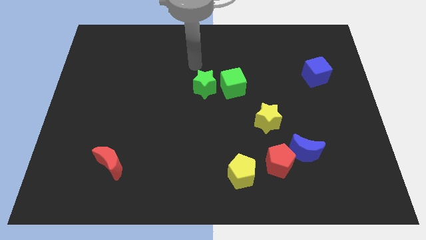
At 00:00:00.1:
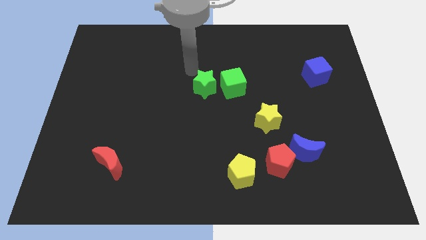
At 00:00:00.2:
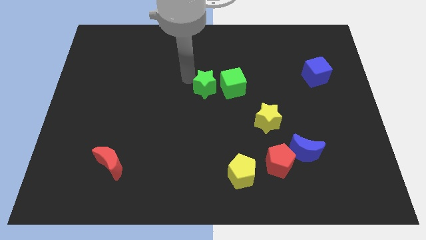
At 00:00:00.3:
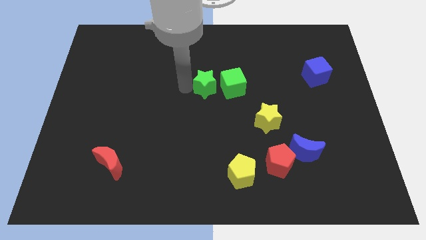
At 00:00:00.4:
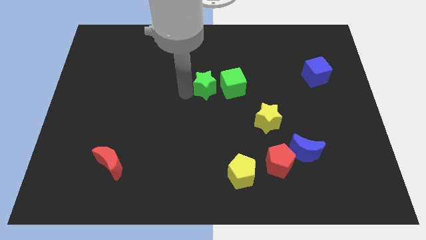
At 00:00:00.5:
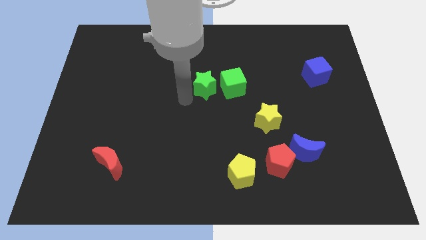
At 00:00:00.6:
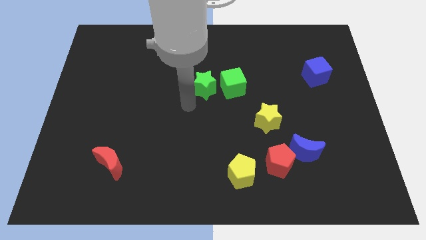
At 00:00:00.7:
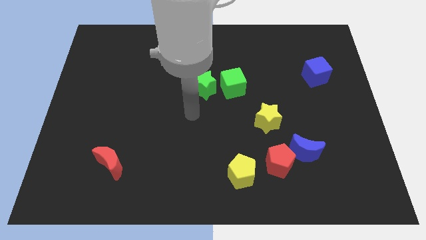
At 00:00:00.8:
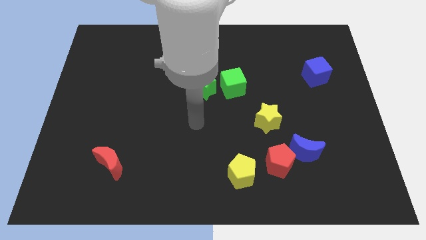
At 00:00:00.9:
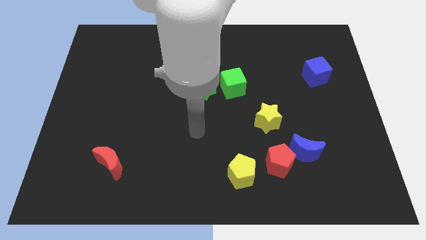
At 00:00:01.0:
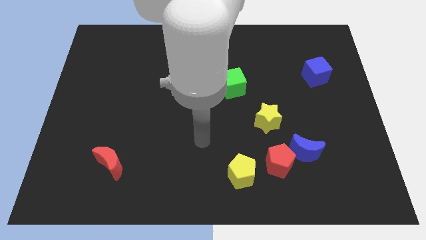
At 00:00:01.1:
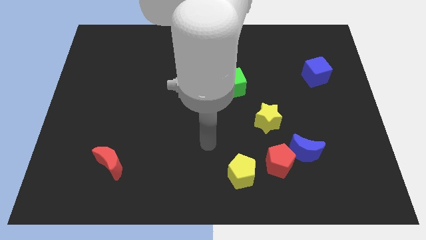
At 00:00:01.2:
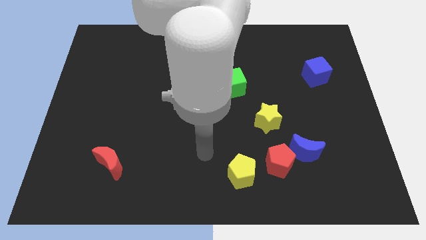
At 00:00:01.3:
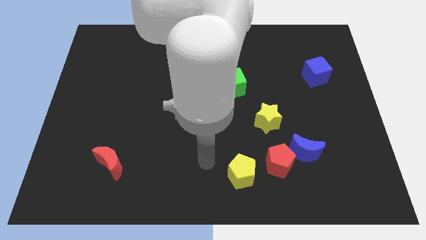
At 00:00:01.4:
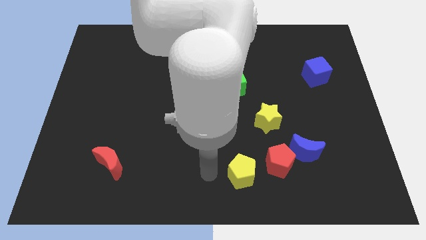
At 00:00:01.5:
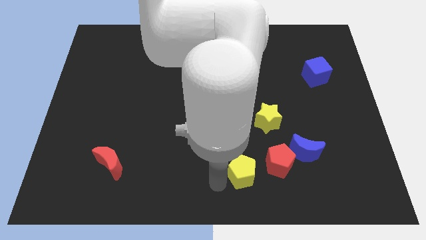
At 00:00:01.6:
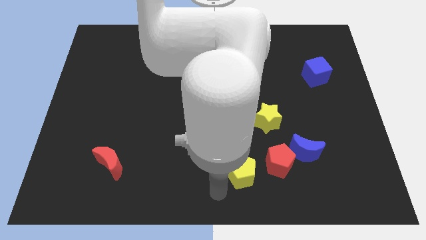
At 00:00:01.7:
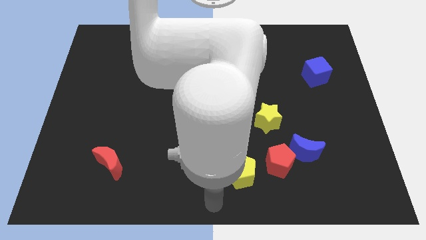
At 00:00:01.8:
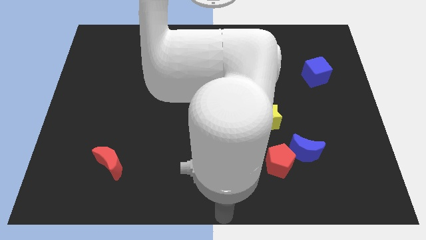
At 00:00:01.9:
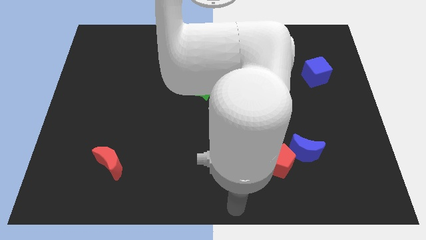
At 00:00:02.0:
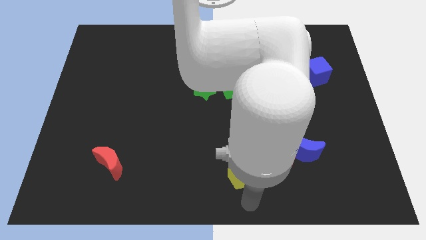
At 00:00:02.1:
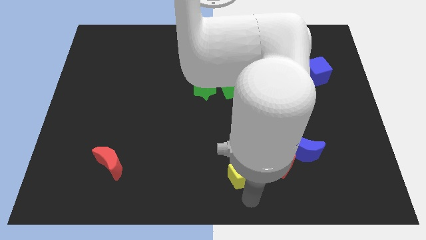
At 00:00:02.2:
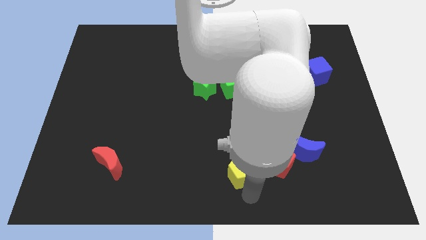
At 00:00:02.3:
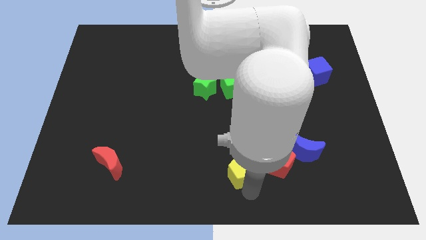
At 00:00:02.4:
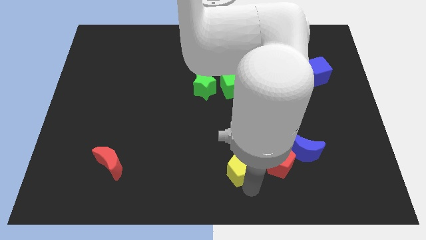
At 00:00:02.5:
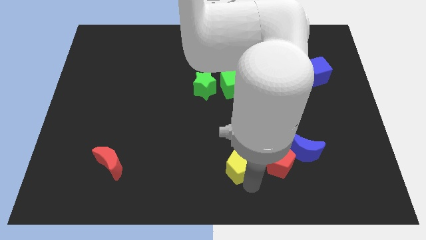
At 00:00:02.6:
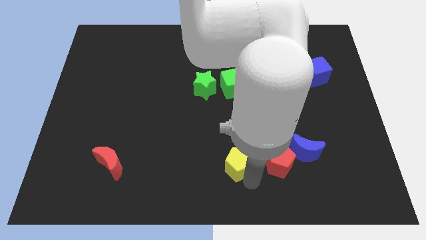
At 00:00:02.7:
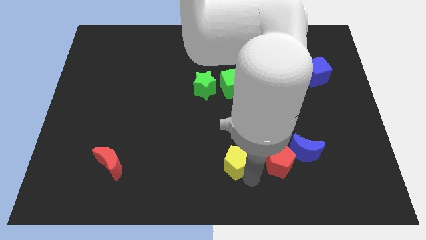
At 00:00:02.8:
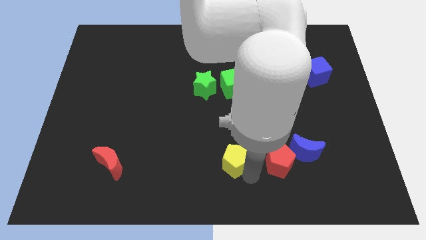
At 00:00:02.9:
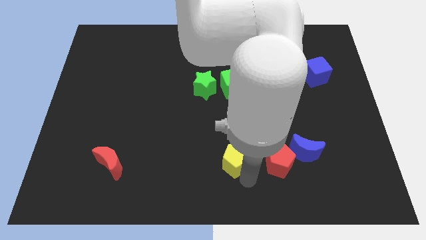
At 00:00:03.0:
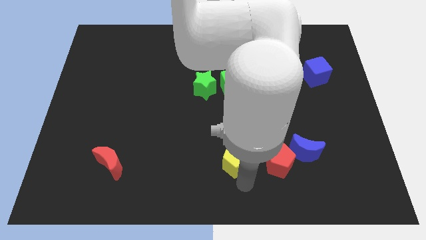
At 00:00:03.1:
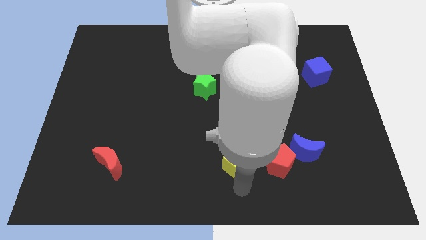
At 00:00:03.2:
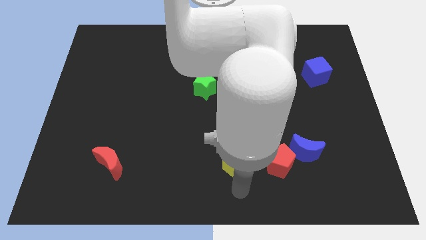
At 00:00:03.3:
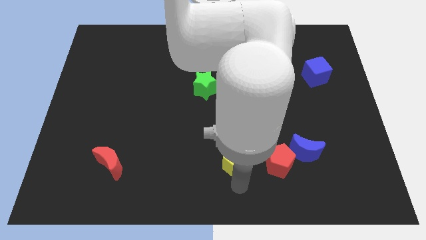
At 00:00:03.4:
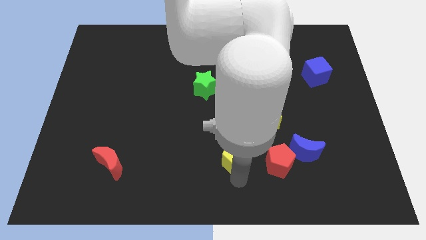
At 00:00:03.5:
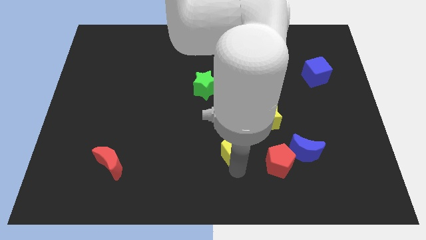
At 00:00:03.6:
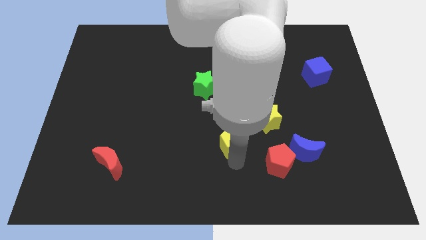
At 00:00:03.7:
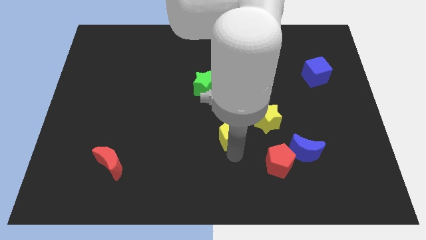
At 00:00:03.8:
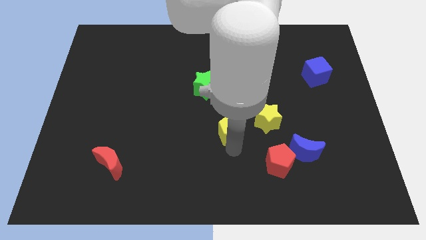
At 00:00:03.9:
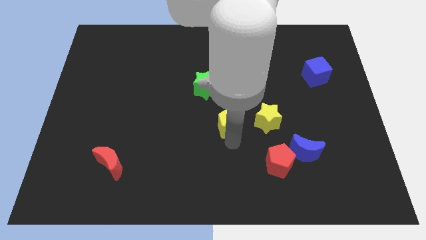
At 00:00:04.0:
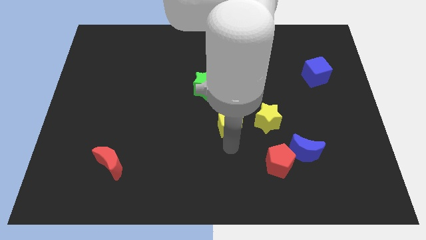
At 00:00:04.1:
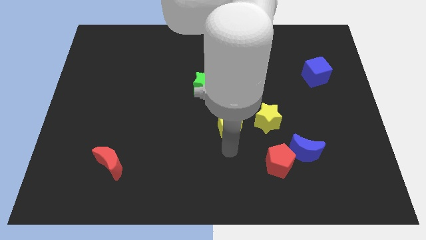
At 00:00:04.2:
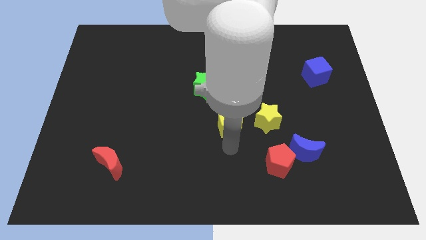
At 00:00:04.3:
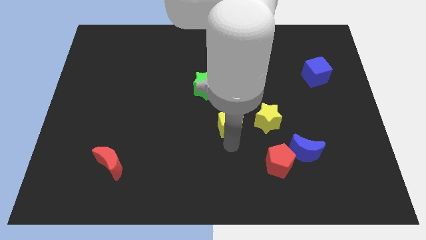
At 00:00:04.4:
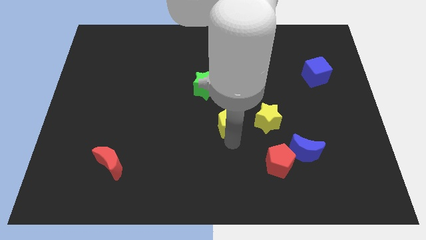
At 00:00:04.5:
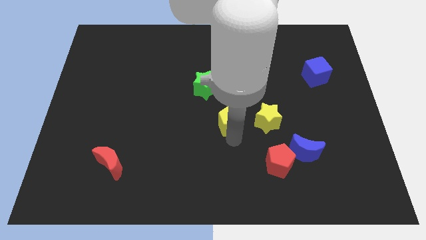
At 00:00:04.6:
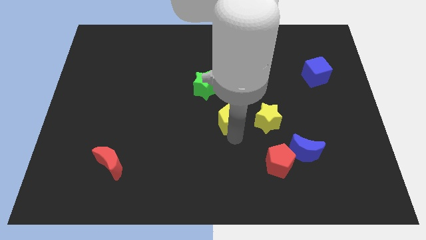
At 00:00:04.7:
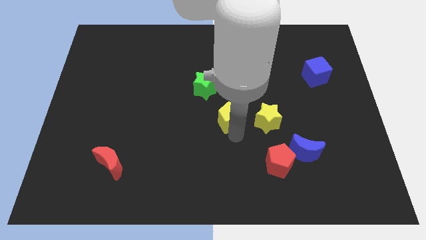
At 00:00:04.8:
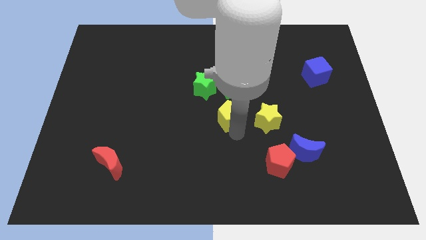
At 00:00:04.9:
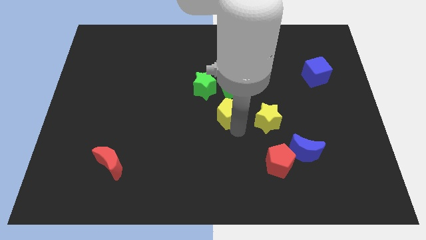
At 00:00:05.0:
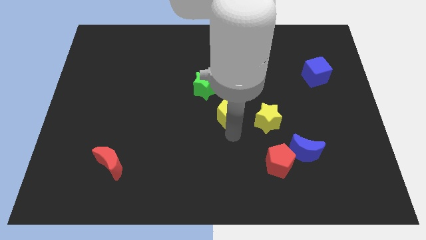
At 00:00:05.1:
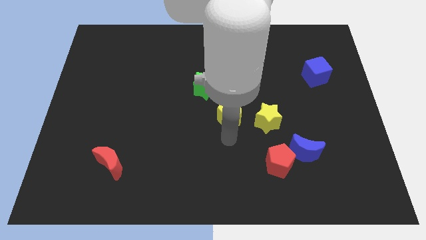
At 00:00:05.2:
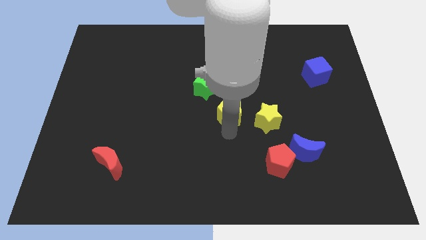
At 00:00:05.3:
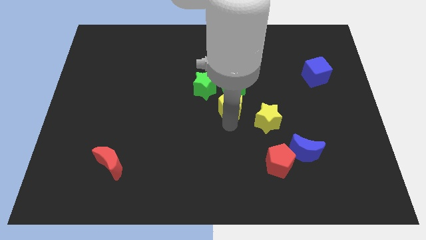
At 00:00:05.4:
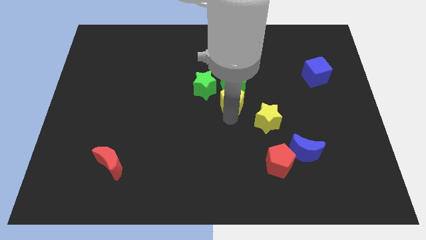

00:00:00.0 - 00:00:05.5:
push the yellow pentagon to the green cube

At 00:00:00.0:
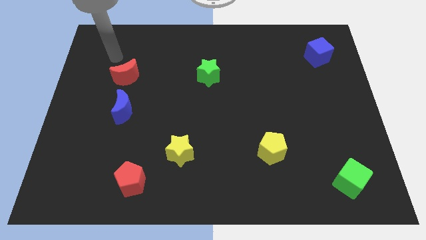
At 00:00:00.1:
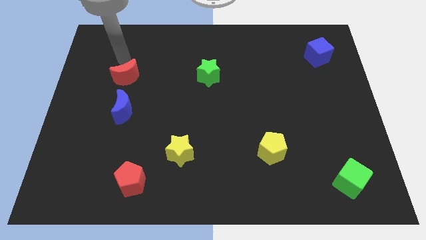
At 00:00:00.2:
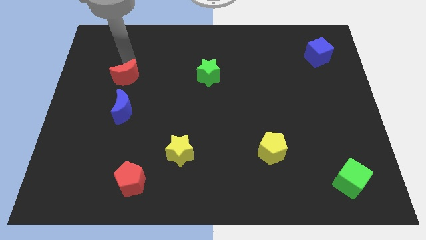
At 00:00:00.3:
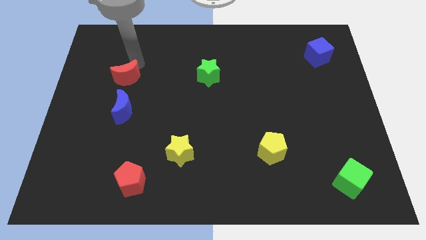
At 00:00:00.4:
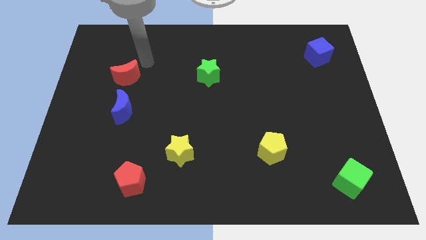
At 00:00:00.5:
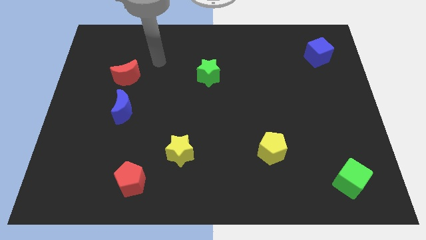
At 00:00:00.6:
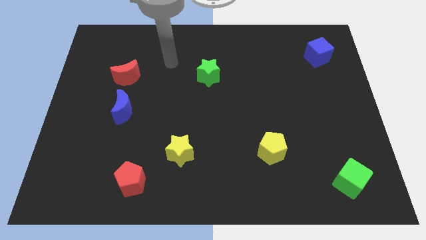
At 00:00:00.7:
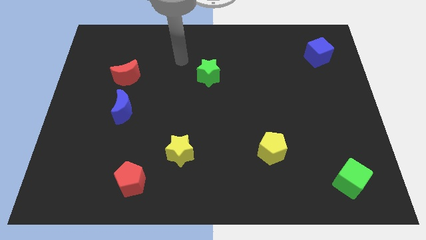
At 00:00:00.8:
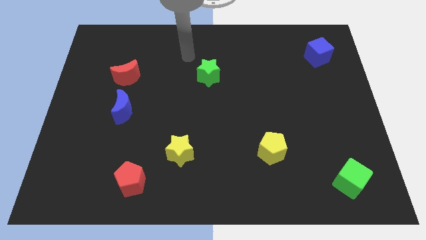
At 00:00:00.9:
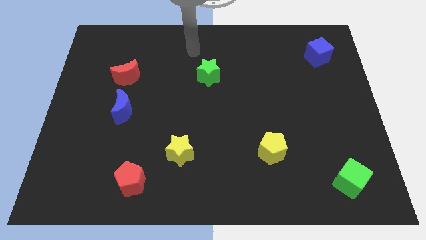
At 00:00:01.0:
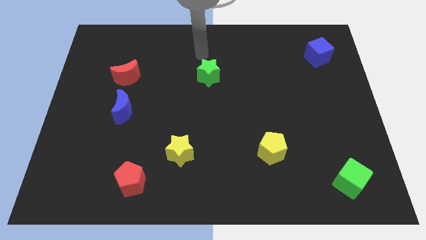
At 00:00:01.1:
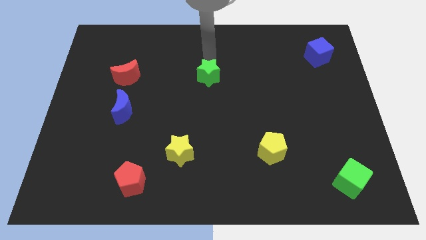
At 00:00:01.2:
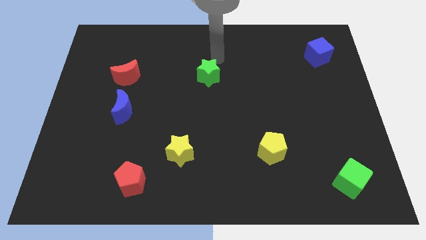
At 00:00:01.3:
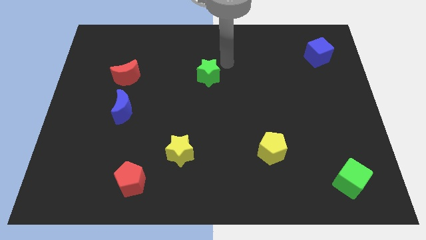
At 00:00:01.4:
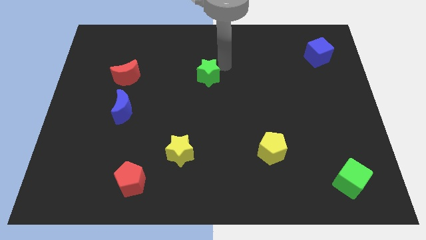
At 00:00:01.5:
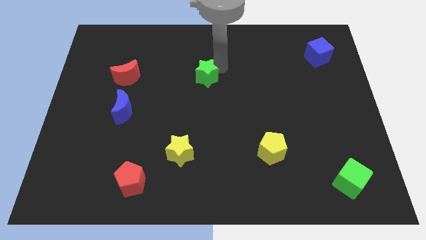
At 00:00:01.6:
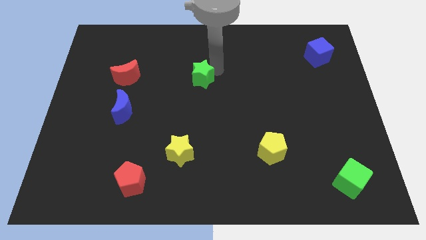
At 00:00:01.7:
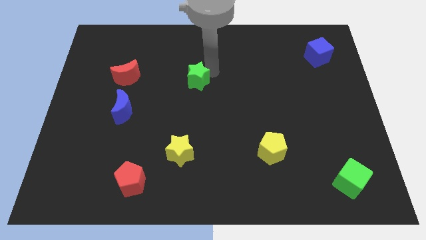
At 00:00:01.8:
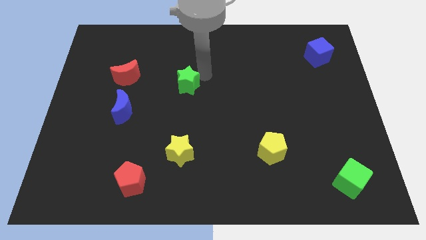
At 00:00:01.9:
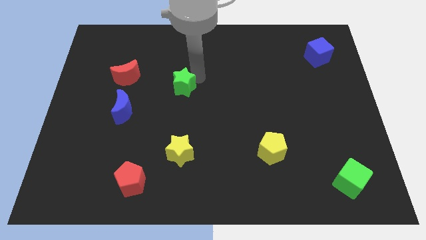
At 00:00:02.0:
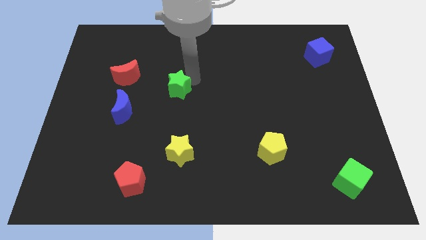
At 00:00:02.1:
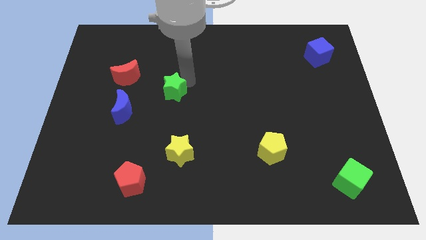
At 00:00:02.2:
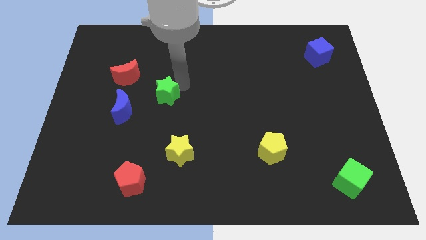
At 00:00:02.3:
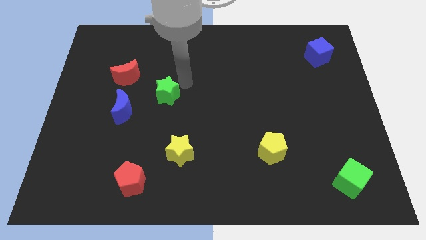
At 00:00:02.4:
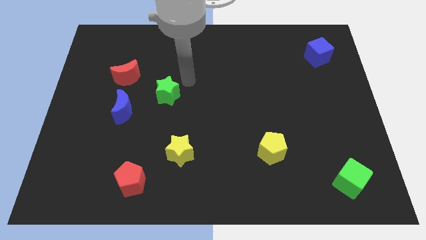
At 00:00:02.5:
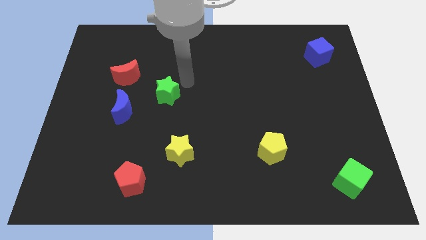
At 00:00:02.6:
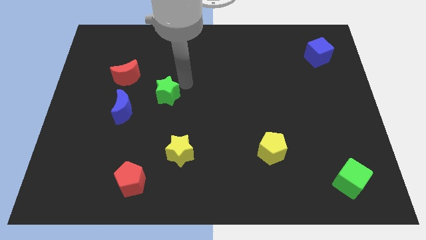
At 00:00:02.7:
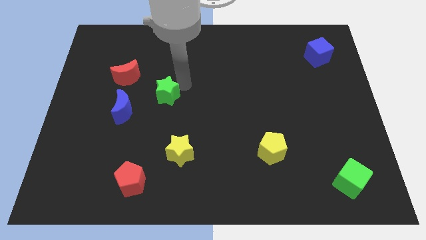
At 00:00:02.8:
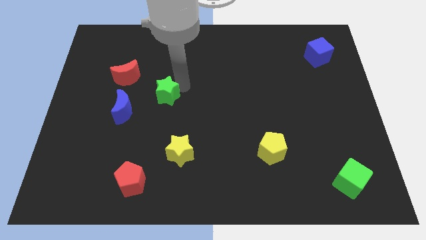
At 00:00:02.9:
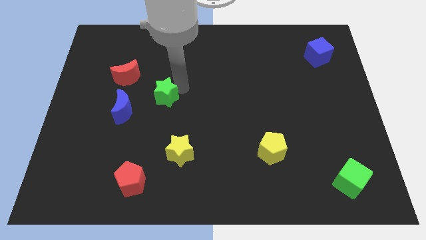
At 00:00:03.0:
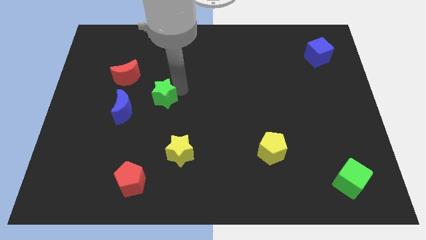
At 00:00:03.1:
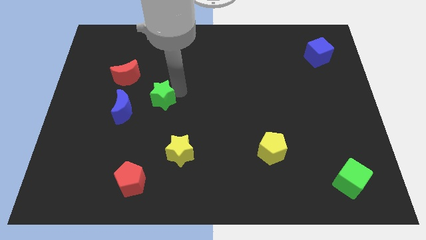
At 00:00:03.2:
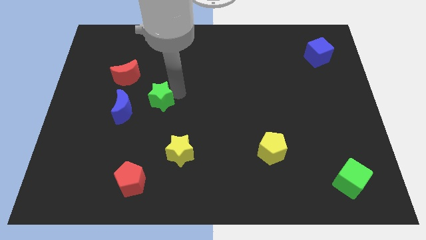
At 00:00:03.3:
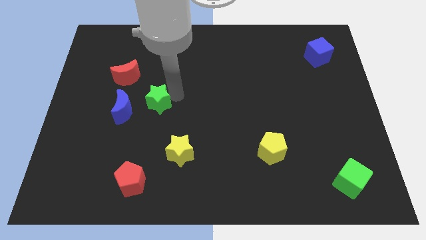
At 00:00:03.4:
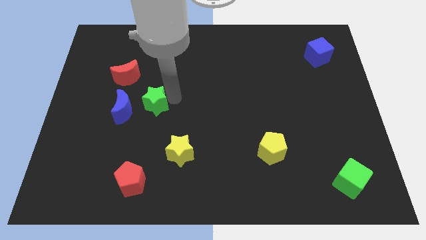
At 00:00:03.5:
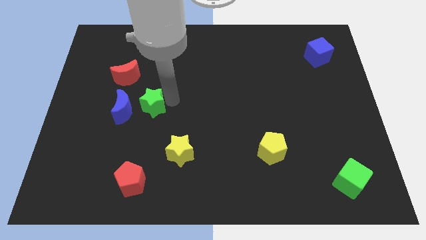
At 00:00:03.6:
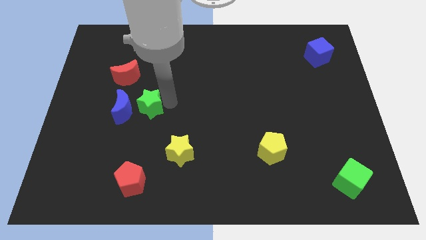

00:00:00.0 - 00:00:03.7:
move the green star close to the blue moon
